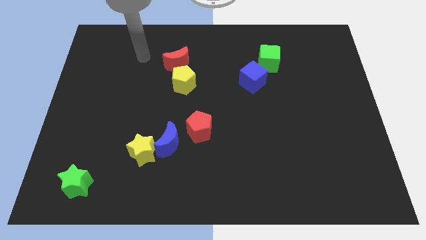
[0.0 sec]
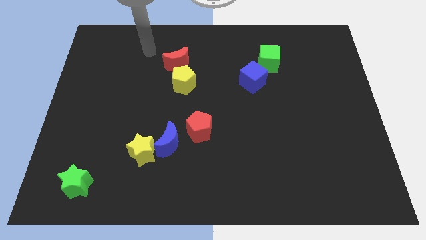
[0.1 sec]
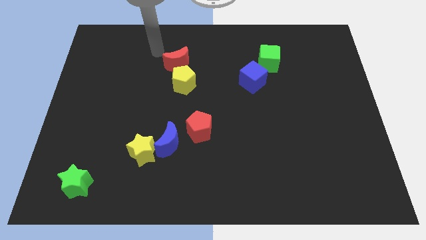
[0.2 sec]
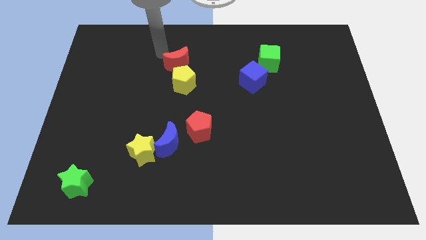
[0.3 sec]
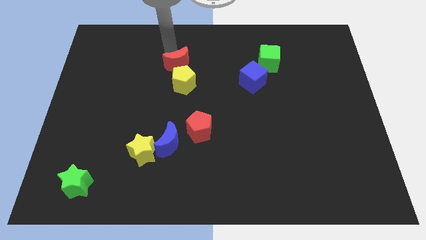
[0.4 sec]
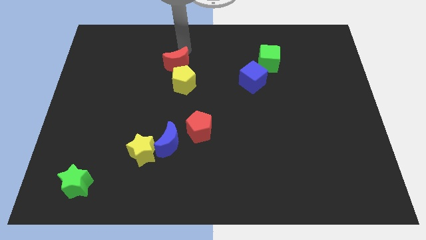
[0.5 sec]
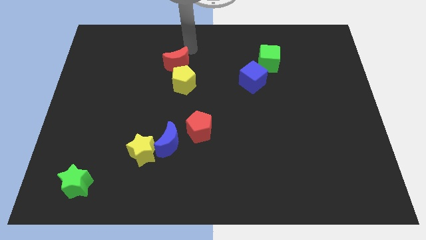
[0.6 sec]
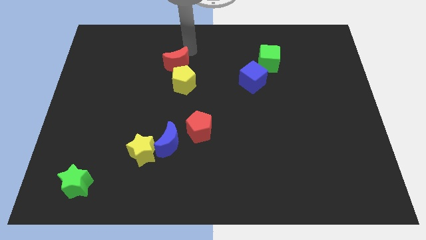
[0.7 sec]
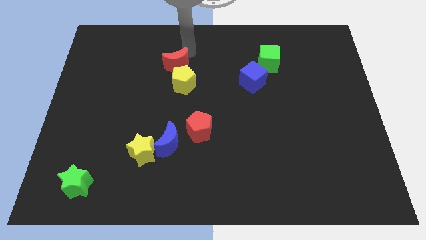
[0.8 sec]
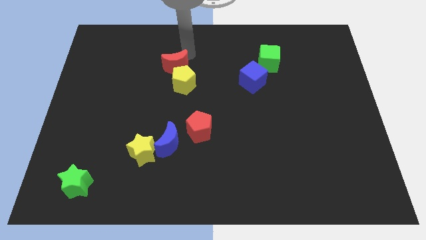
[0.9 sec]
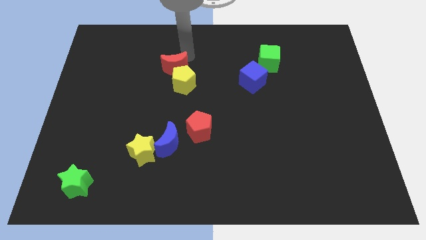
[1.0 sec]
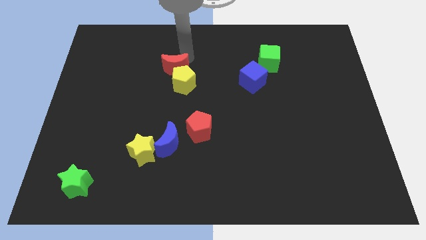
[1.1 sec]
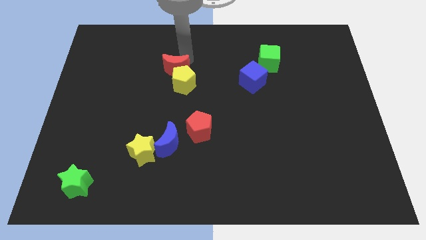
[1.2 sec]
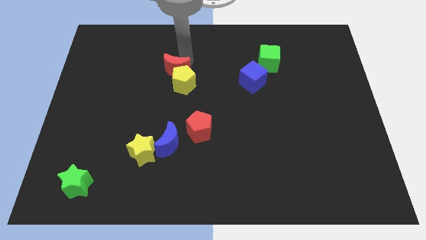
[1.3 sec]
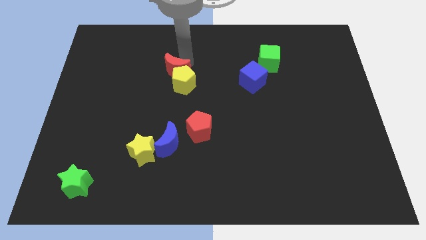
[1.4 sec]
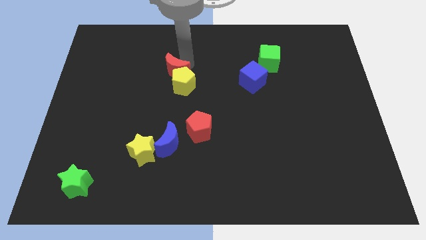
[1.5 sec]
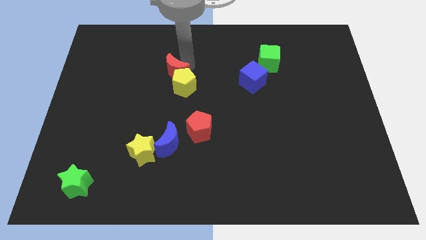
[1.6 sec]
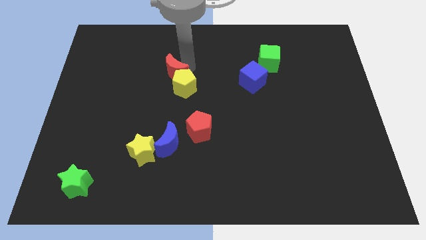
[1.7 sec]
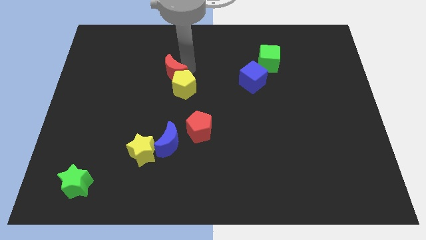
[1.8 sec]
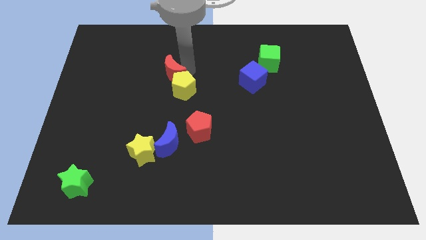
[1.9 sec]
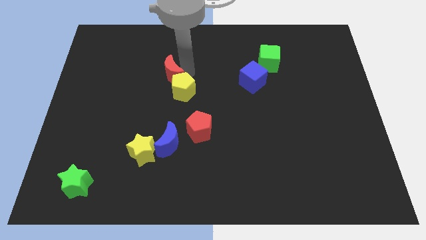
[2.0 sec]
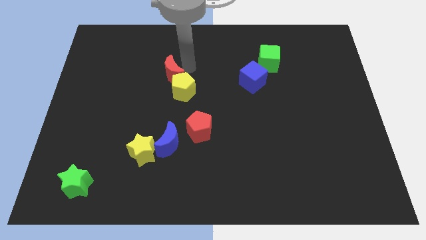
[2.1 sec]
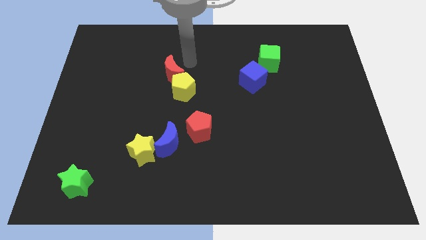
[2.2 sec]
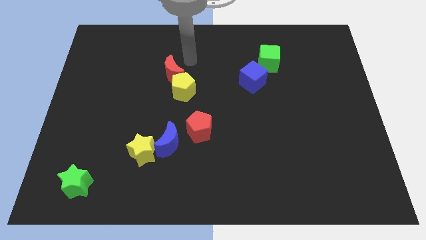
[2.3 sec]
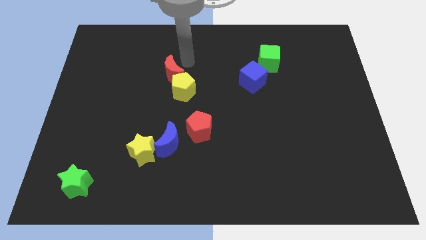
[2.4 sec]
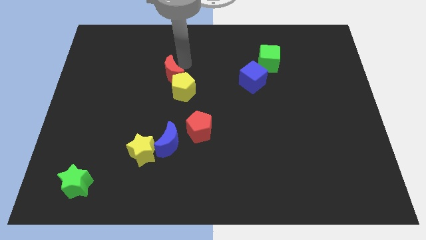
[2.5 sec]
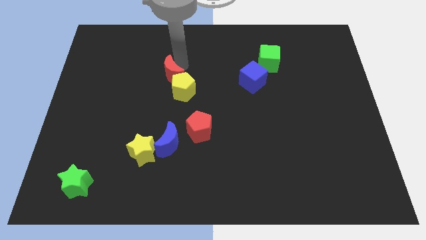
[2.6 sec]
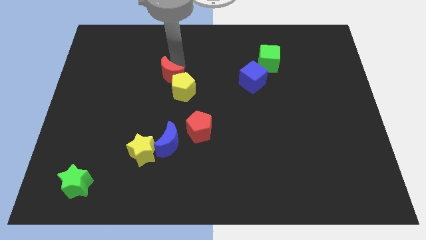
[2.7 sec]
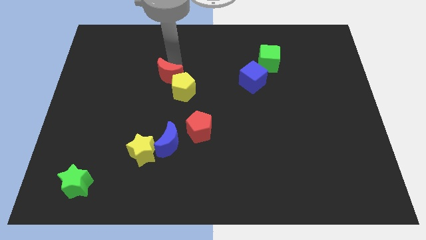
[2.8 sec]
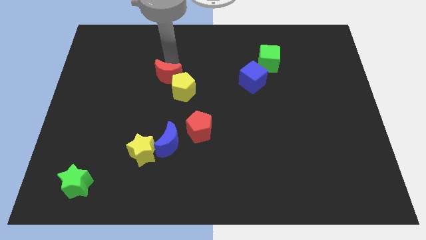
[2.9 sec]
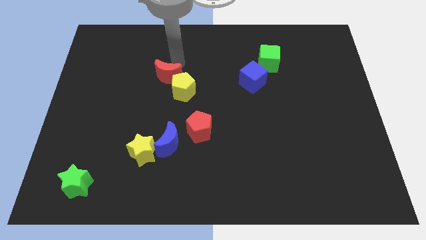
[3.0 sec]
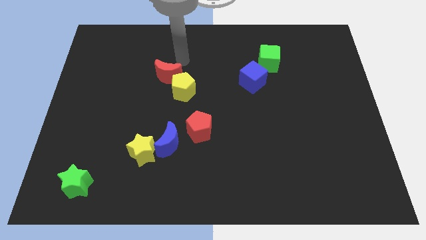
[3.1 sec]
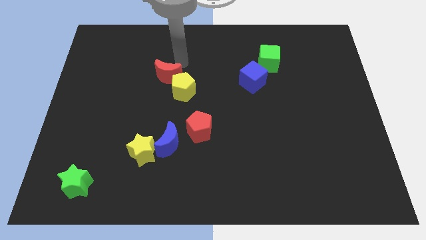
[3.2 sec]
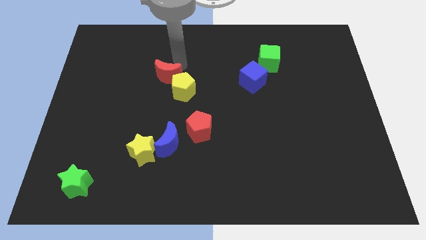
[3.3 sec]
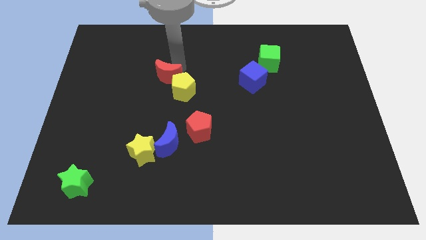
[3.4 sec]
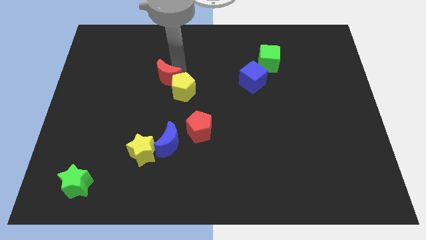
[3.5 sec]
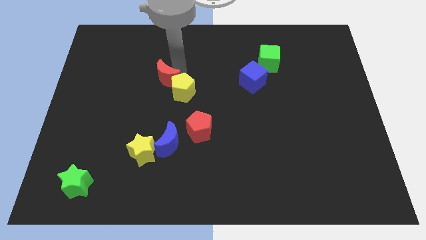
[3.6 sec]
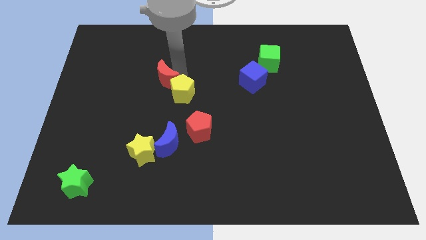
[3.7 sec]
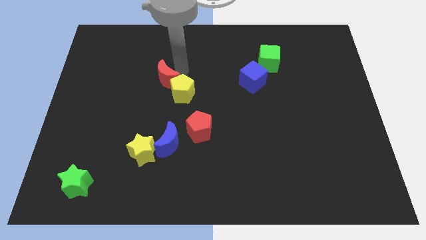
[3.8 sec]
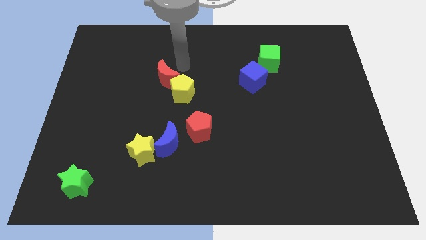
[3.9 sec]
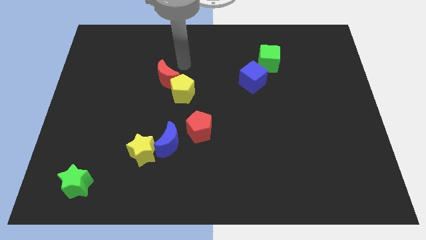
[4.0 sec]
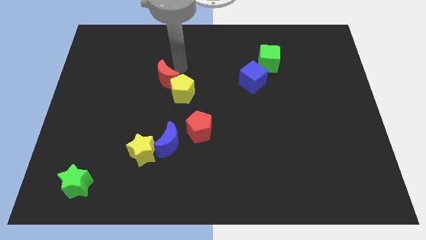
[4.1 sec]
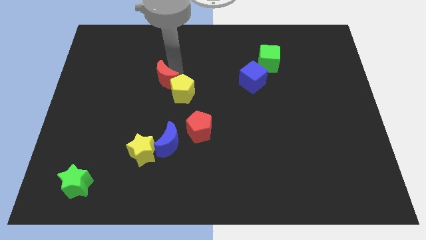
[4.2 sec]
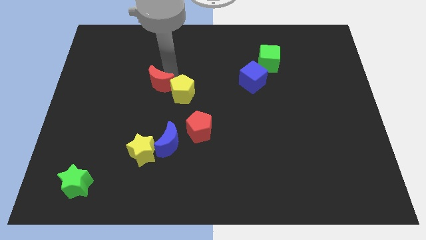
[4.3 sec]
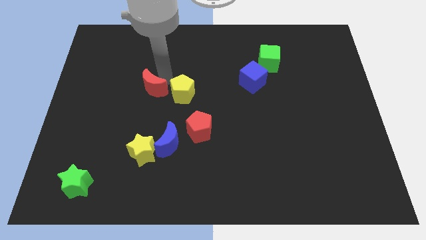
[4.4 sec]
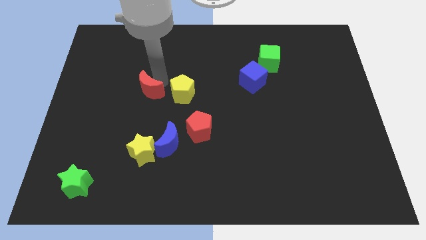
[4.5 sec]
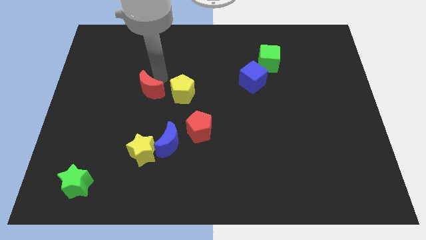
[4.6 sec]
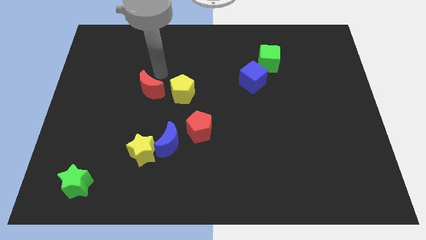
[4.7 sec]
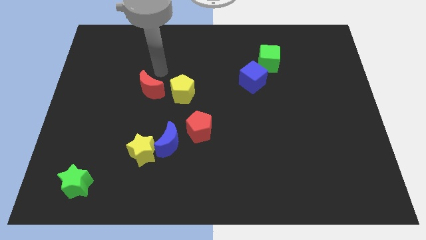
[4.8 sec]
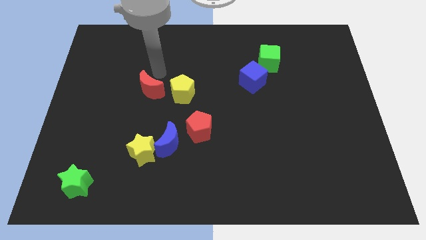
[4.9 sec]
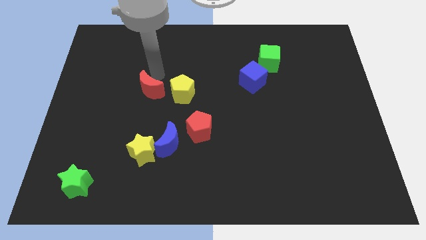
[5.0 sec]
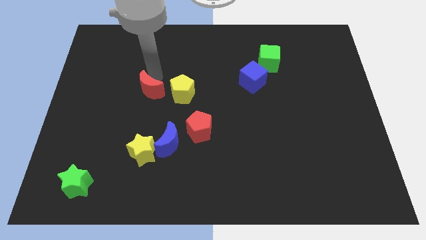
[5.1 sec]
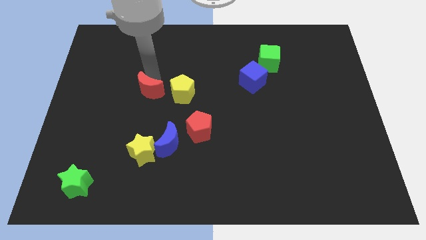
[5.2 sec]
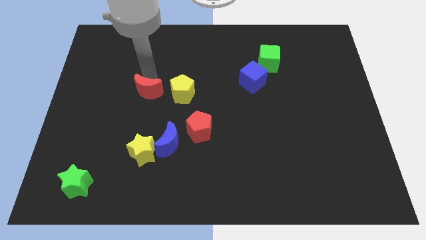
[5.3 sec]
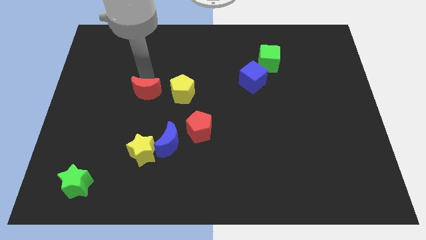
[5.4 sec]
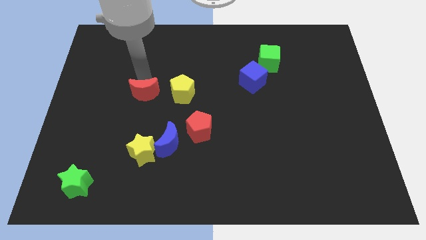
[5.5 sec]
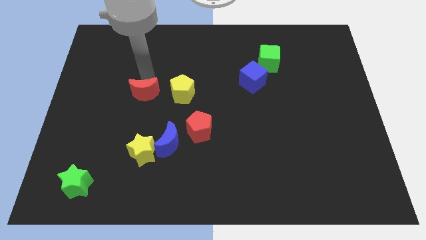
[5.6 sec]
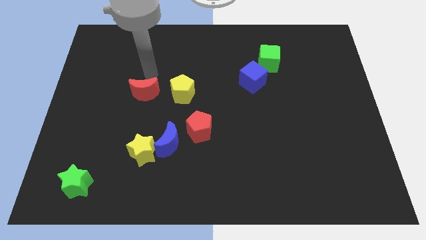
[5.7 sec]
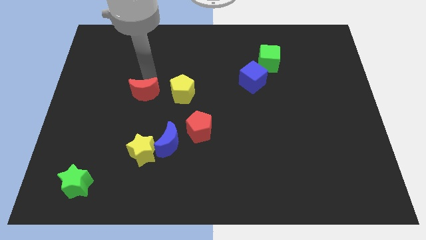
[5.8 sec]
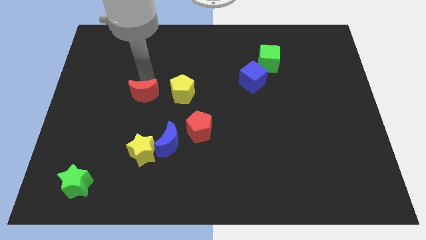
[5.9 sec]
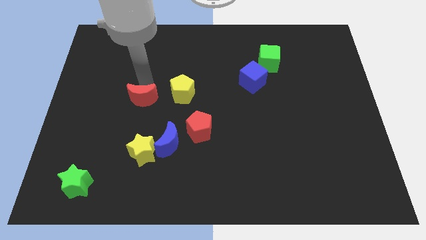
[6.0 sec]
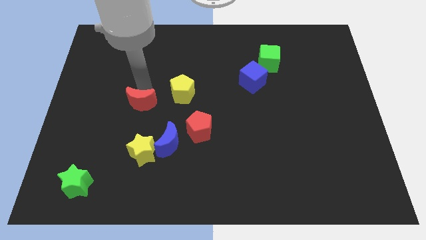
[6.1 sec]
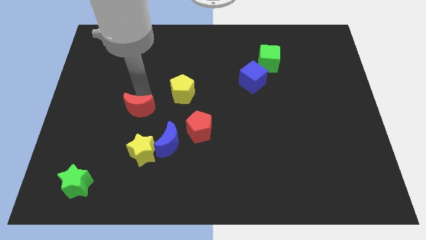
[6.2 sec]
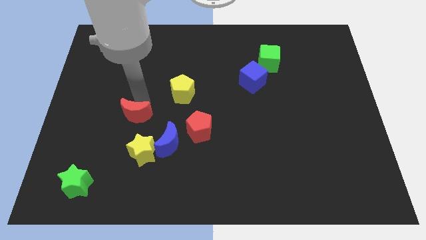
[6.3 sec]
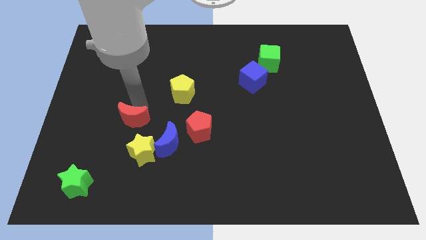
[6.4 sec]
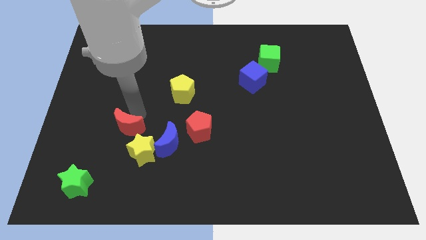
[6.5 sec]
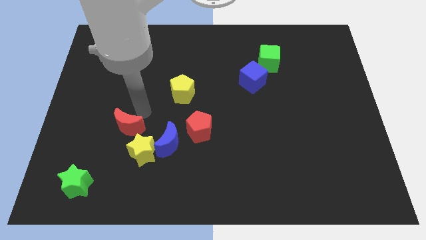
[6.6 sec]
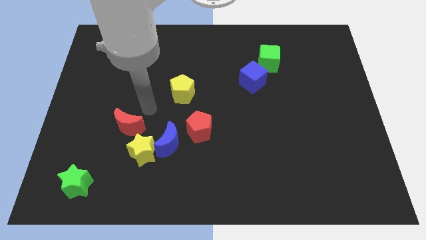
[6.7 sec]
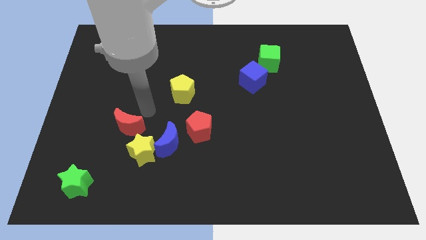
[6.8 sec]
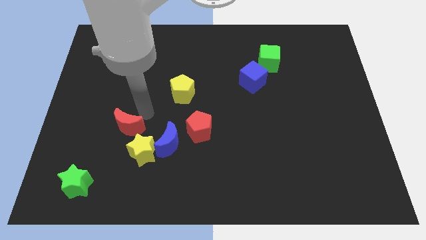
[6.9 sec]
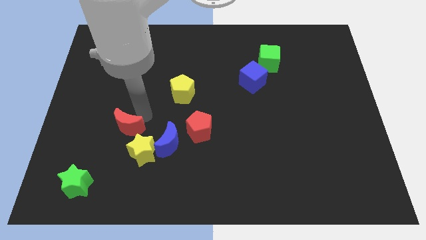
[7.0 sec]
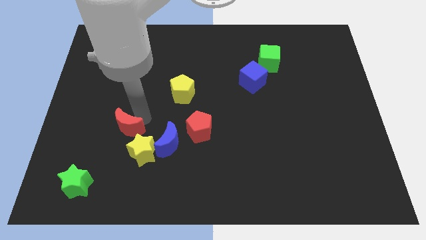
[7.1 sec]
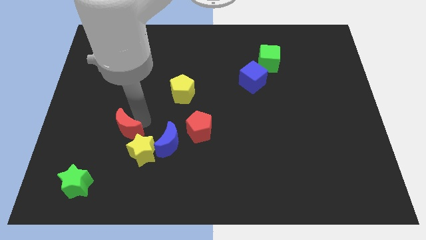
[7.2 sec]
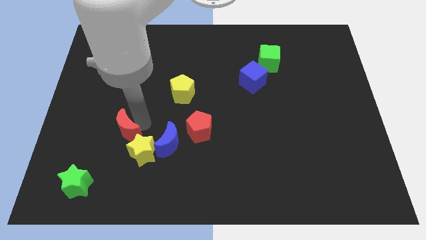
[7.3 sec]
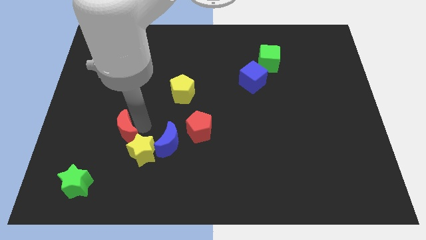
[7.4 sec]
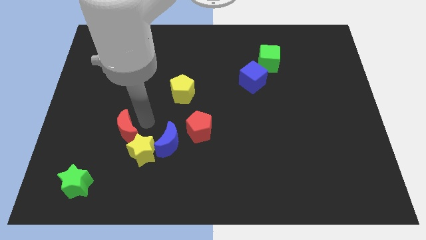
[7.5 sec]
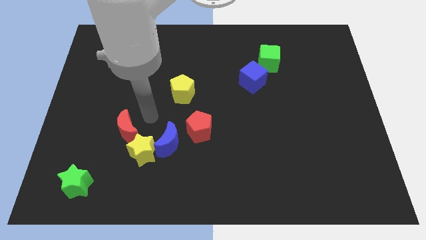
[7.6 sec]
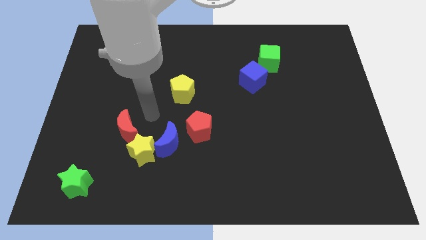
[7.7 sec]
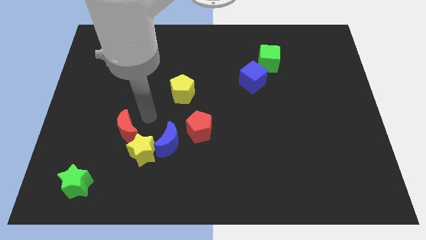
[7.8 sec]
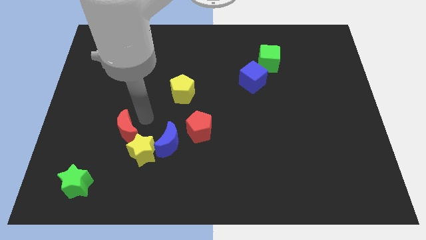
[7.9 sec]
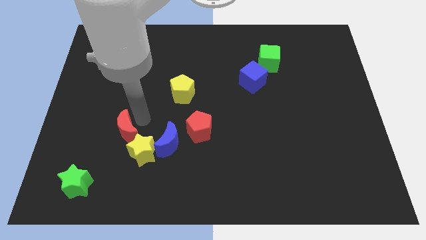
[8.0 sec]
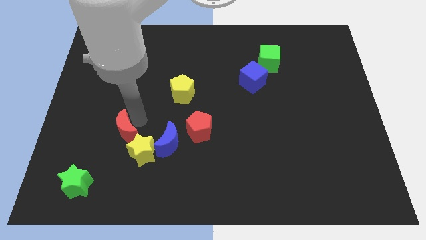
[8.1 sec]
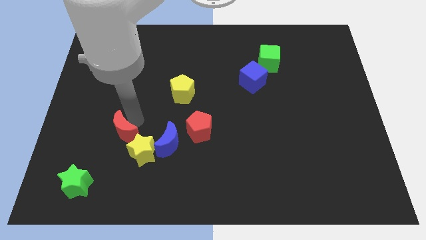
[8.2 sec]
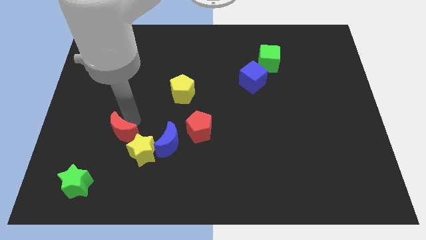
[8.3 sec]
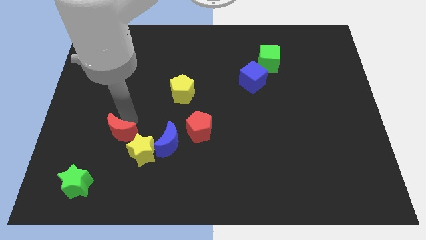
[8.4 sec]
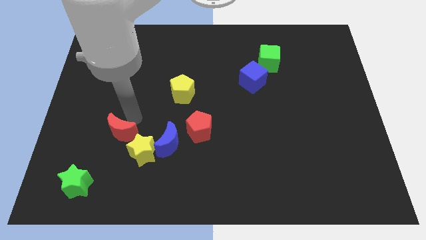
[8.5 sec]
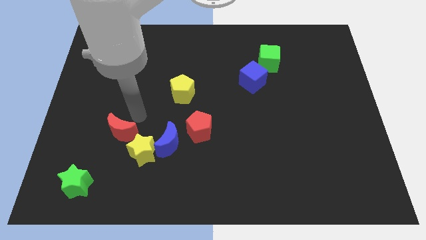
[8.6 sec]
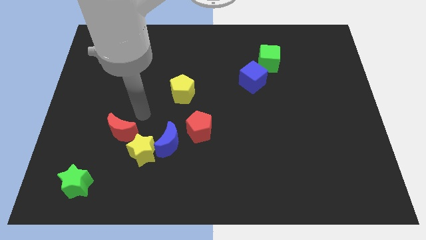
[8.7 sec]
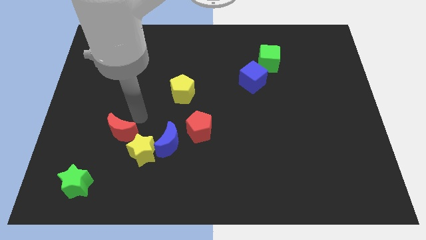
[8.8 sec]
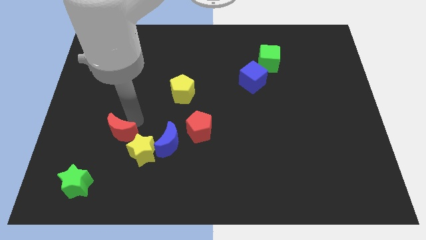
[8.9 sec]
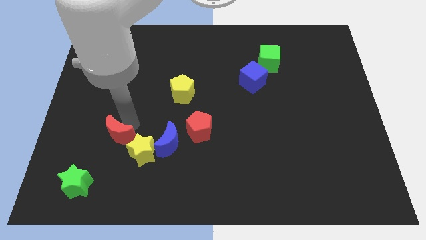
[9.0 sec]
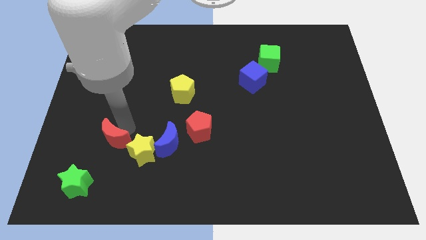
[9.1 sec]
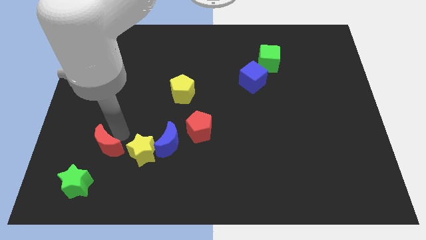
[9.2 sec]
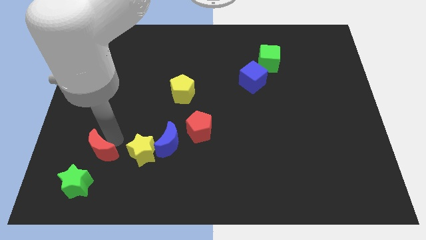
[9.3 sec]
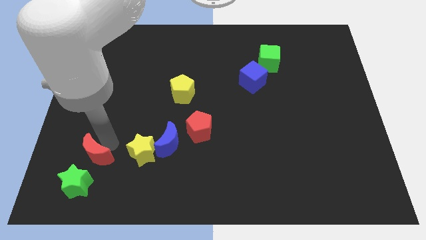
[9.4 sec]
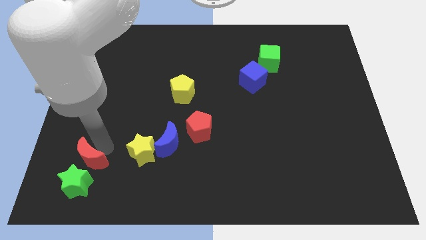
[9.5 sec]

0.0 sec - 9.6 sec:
slide the red moon to the green star
